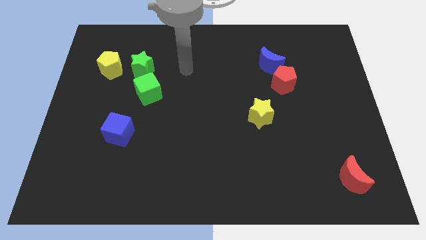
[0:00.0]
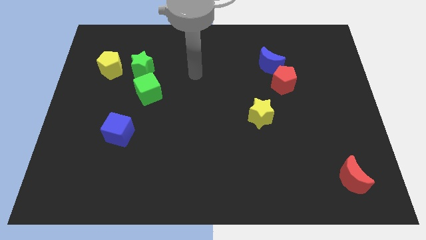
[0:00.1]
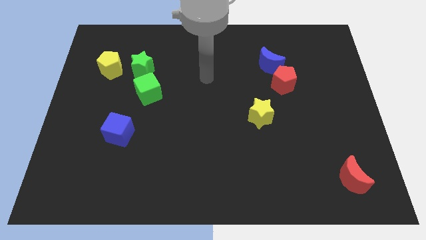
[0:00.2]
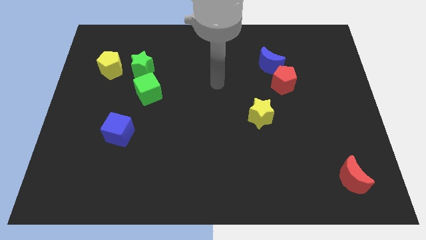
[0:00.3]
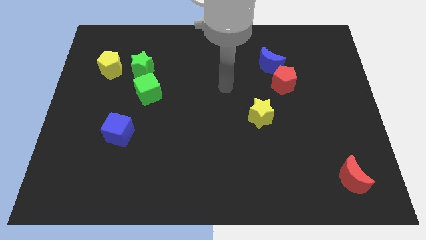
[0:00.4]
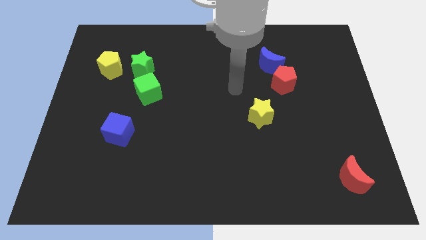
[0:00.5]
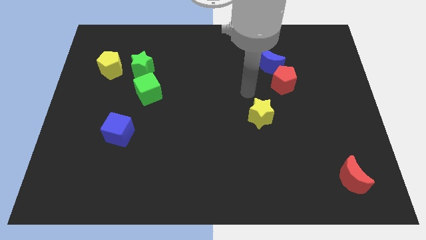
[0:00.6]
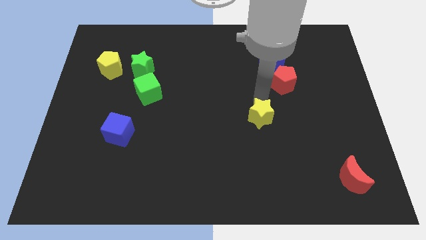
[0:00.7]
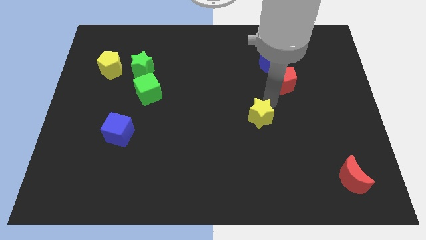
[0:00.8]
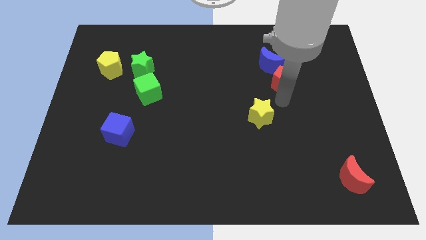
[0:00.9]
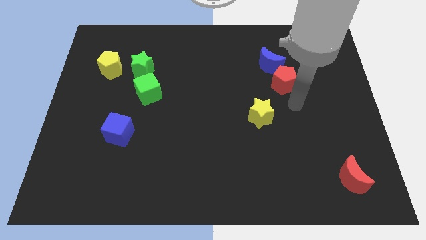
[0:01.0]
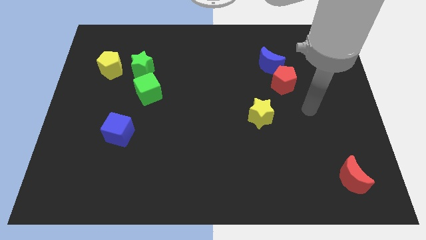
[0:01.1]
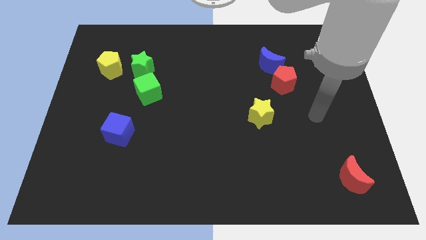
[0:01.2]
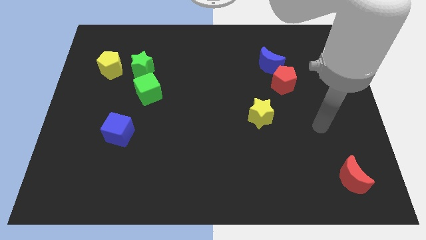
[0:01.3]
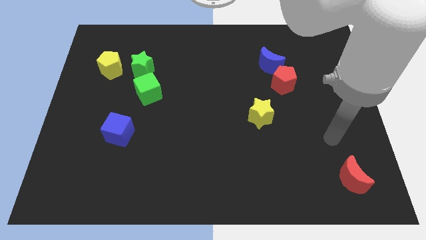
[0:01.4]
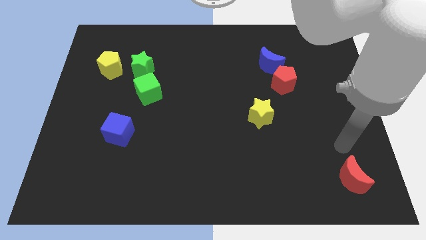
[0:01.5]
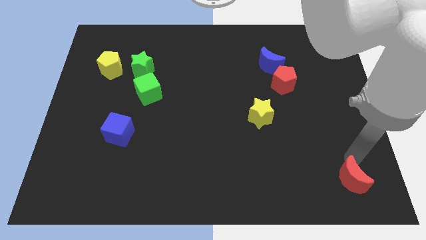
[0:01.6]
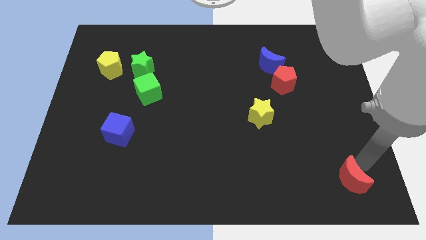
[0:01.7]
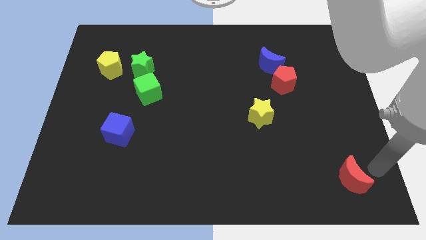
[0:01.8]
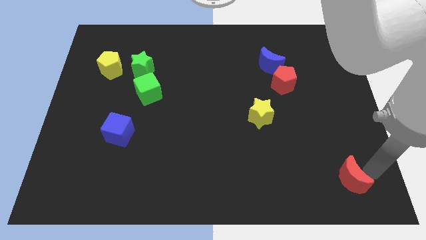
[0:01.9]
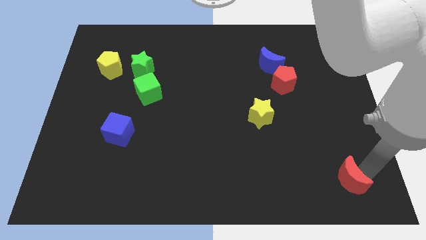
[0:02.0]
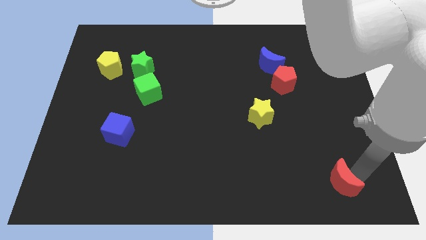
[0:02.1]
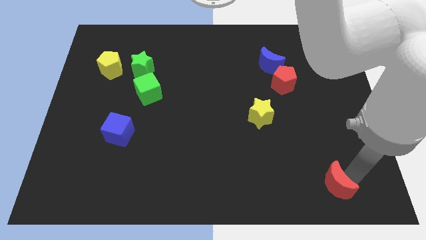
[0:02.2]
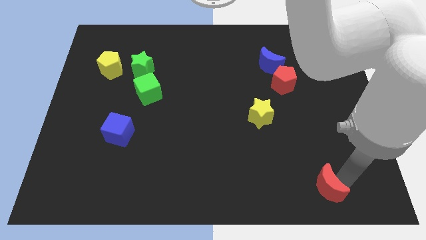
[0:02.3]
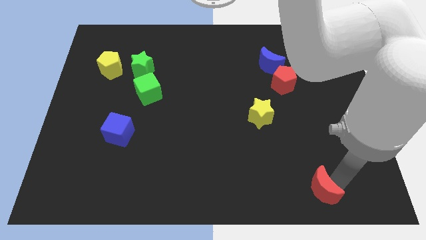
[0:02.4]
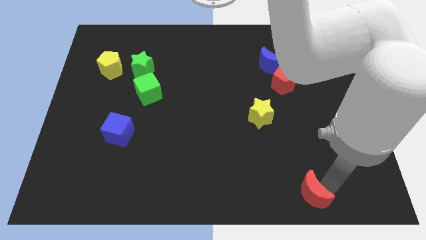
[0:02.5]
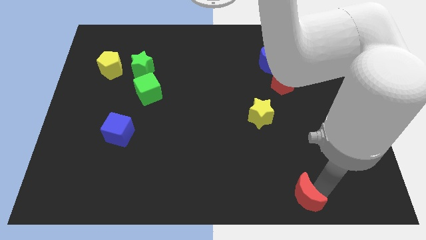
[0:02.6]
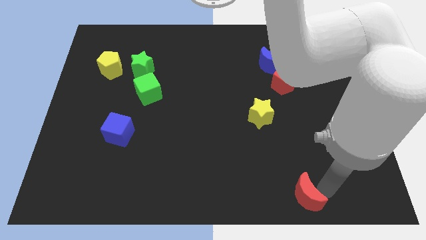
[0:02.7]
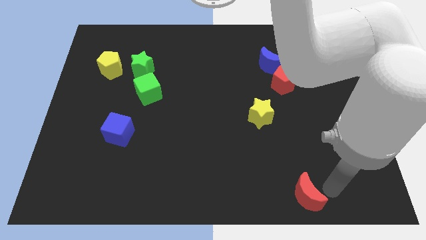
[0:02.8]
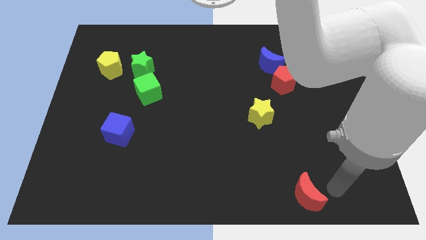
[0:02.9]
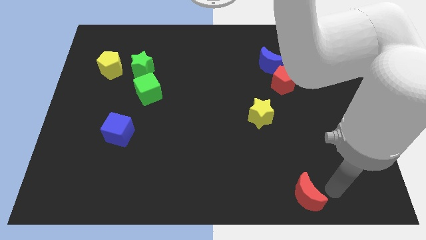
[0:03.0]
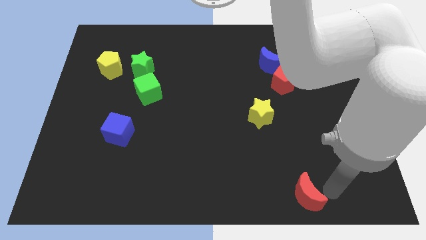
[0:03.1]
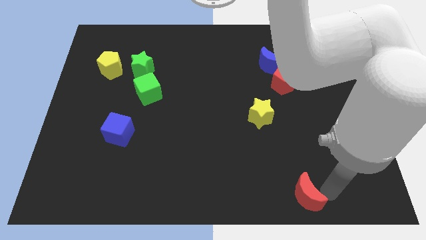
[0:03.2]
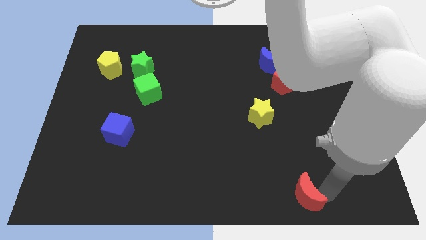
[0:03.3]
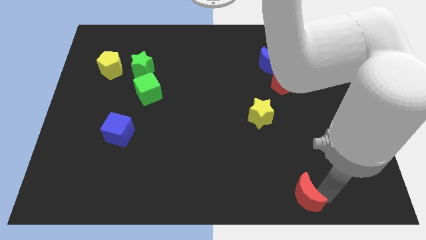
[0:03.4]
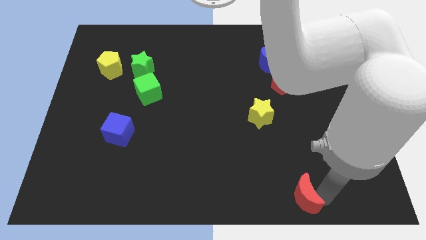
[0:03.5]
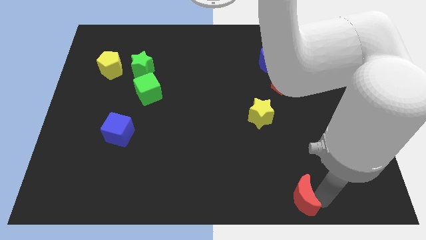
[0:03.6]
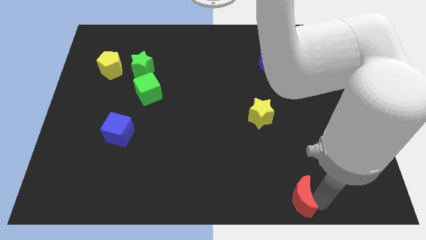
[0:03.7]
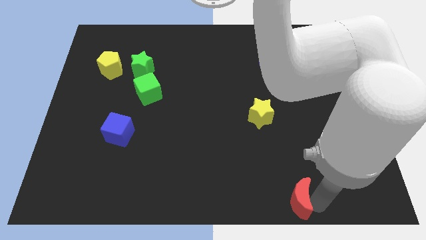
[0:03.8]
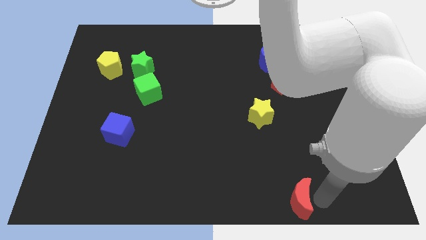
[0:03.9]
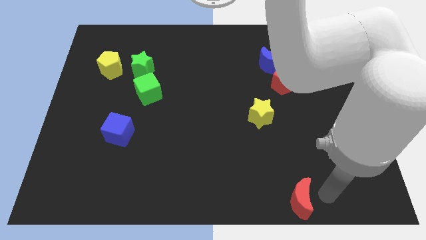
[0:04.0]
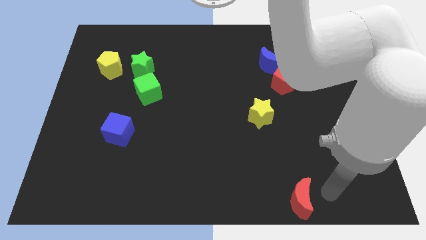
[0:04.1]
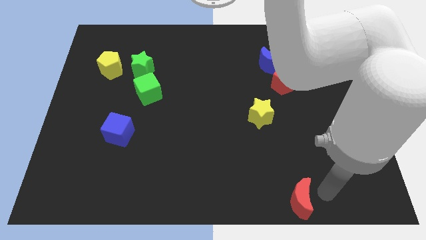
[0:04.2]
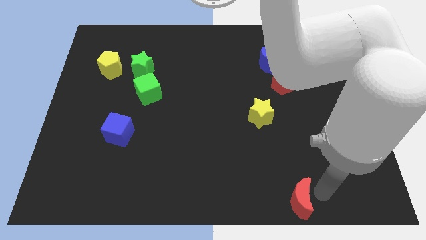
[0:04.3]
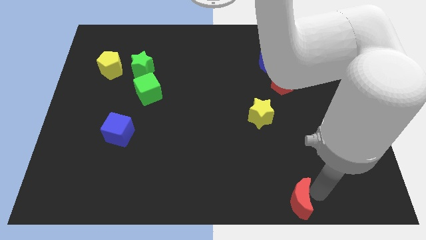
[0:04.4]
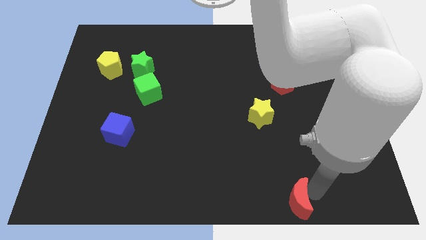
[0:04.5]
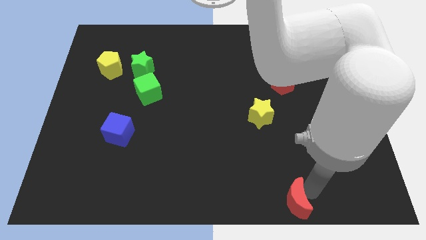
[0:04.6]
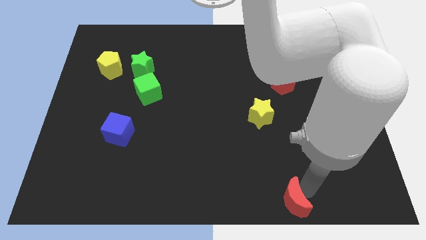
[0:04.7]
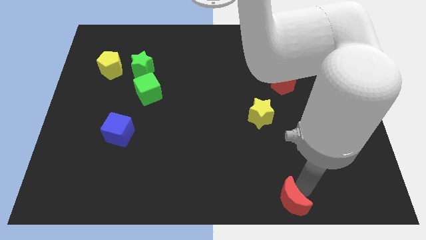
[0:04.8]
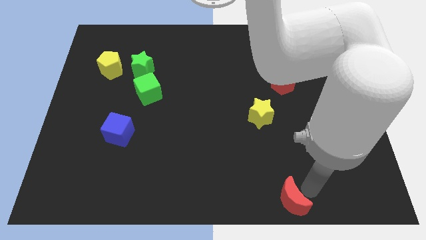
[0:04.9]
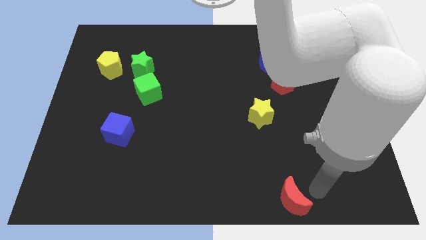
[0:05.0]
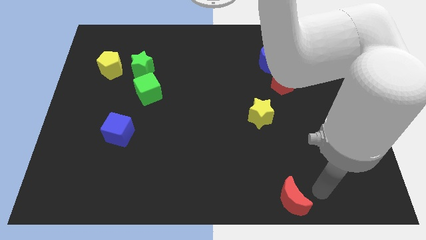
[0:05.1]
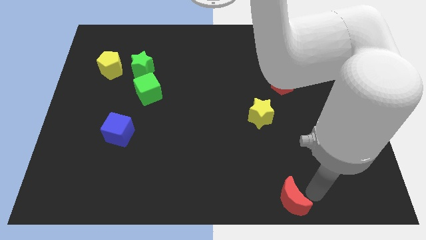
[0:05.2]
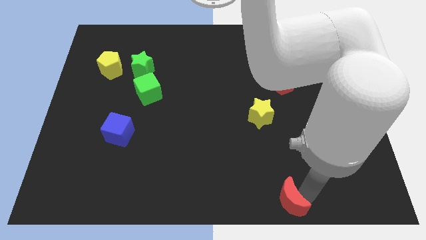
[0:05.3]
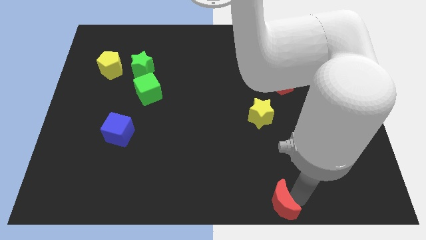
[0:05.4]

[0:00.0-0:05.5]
move the red moon to the bottom
